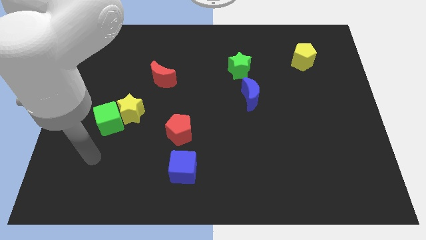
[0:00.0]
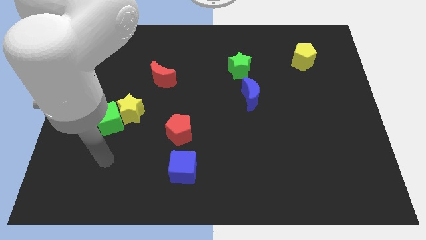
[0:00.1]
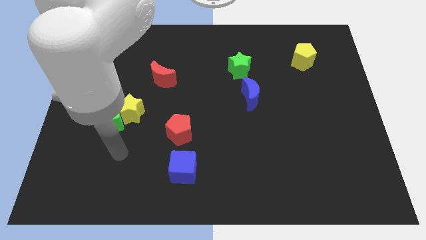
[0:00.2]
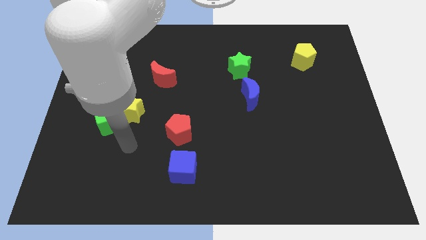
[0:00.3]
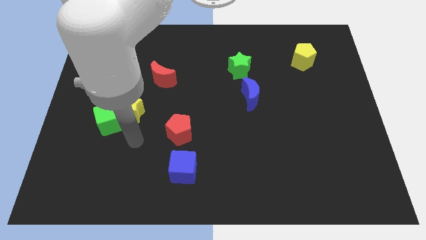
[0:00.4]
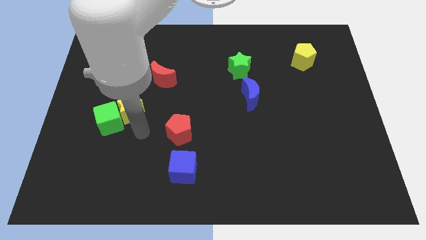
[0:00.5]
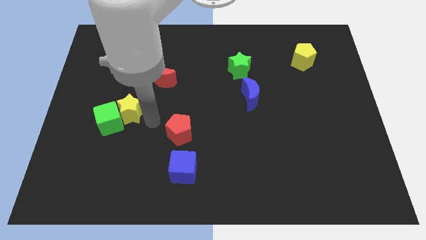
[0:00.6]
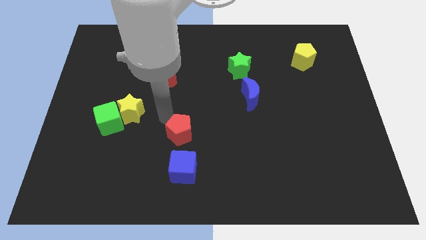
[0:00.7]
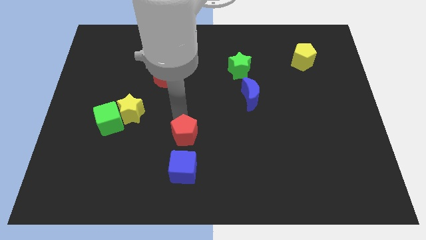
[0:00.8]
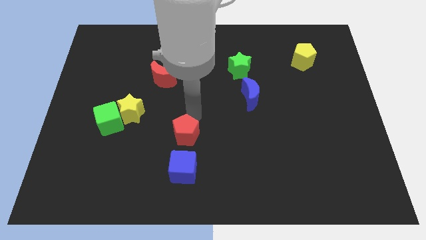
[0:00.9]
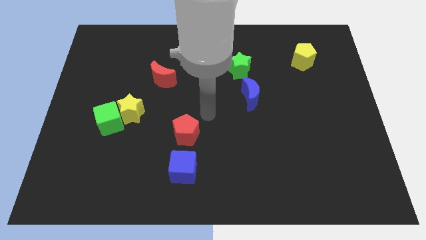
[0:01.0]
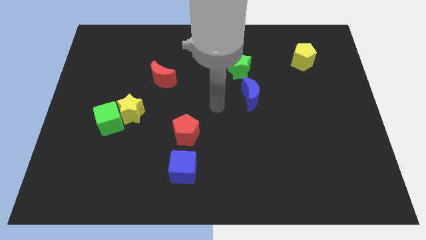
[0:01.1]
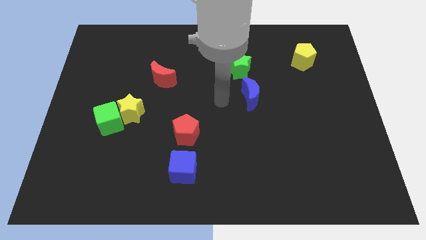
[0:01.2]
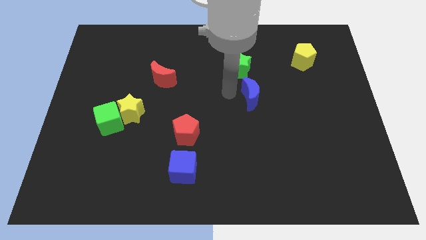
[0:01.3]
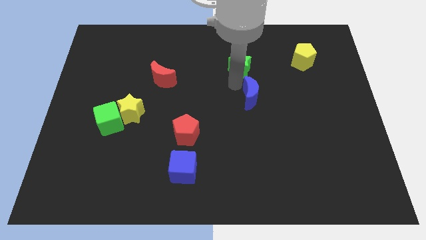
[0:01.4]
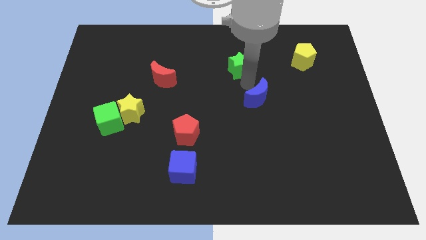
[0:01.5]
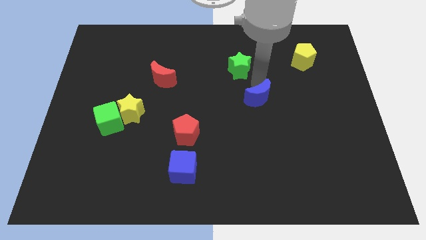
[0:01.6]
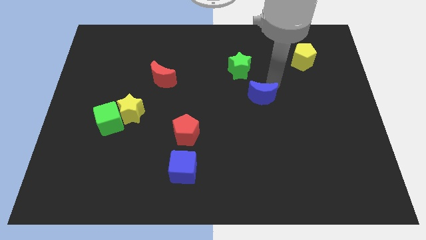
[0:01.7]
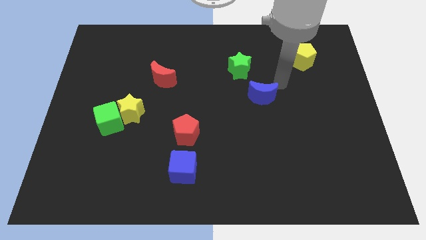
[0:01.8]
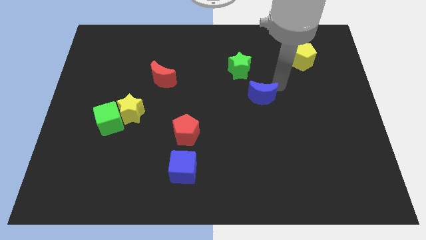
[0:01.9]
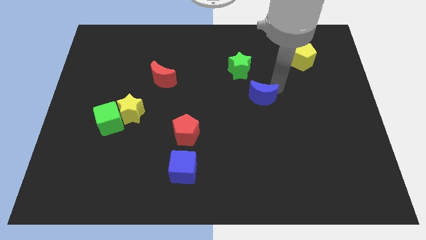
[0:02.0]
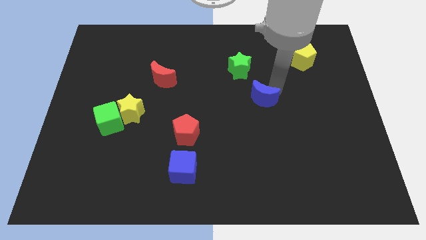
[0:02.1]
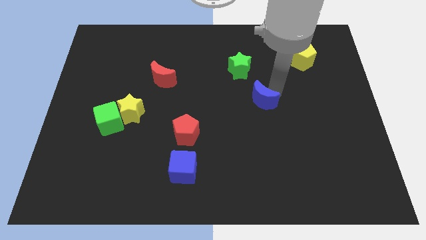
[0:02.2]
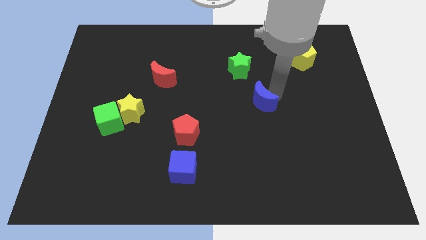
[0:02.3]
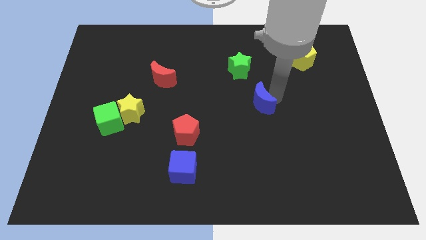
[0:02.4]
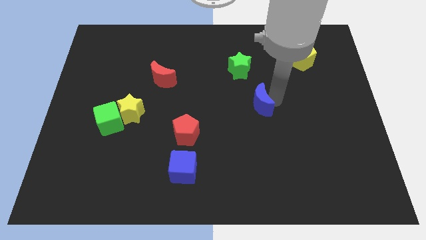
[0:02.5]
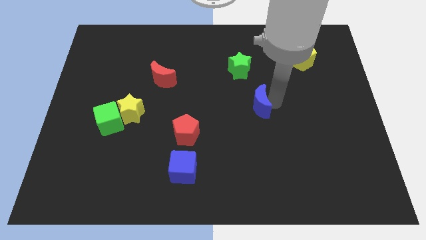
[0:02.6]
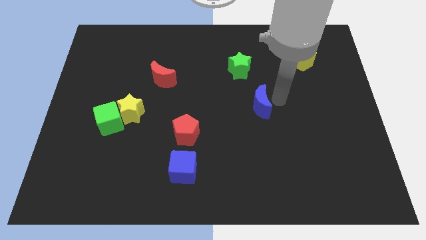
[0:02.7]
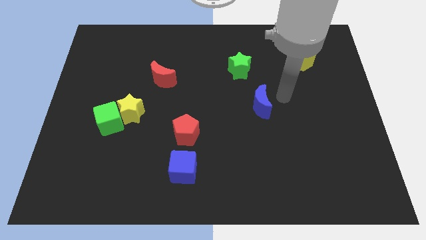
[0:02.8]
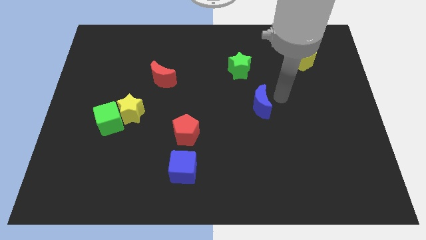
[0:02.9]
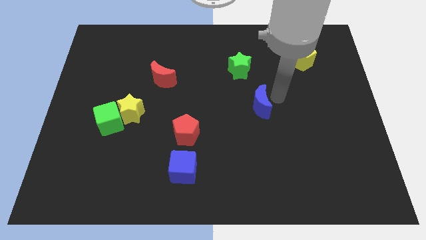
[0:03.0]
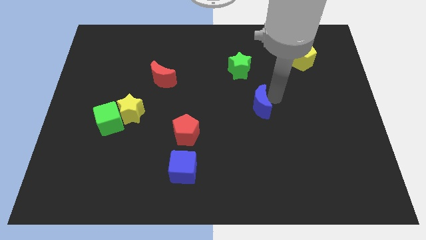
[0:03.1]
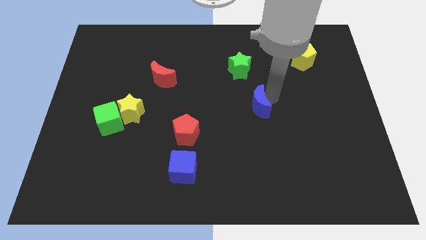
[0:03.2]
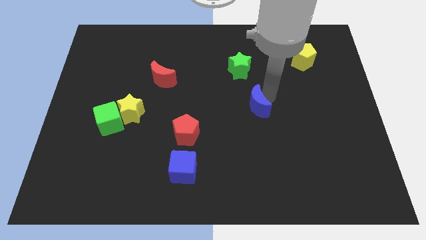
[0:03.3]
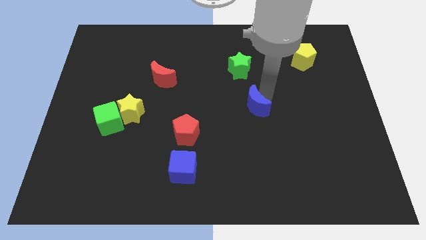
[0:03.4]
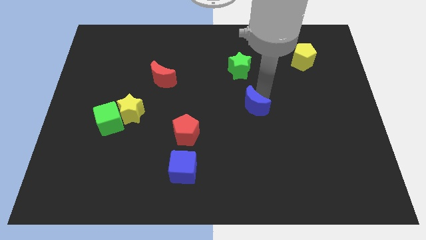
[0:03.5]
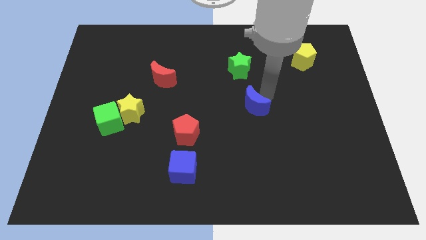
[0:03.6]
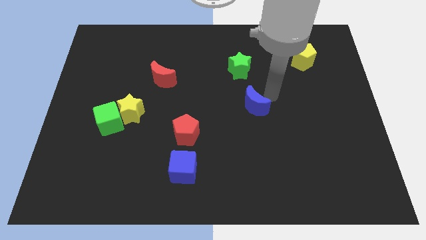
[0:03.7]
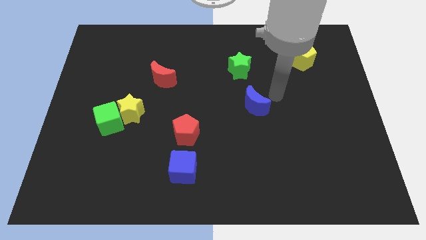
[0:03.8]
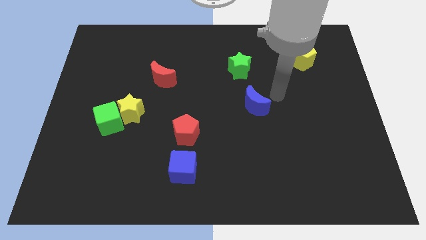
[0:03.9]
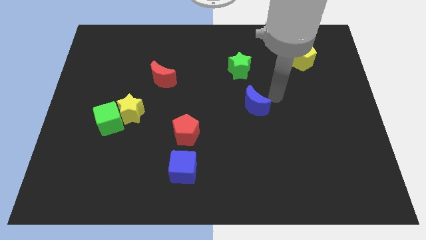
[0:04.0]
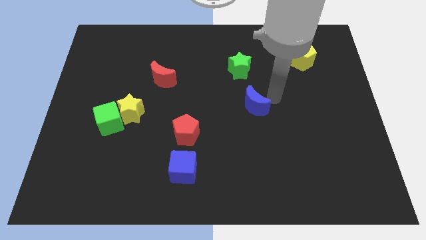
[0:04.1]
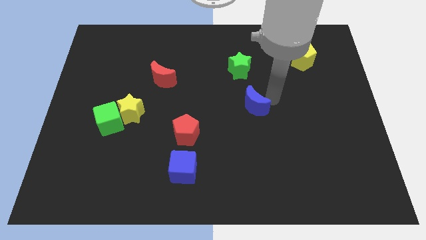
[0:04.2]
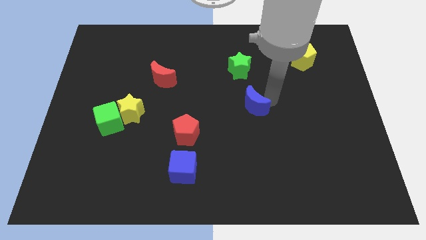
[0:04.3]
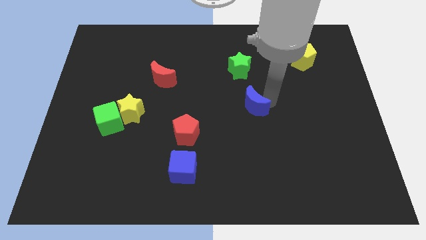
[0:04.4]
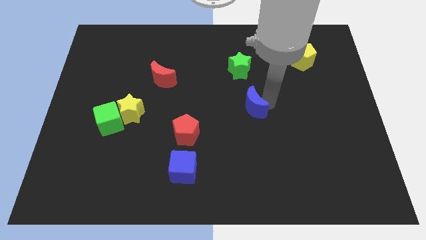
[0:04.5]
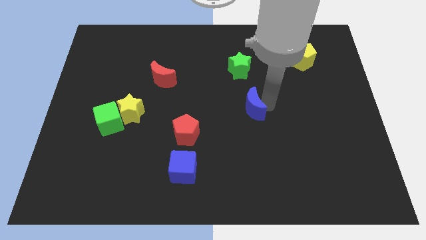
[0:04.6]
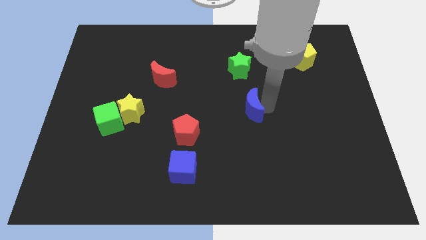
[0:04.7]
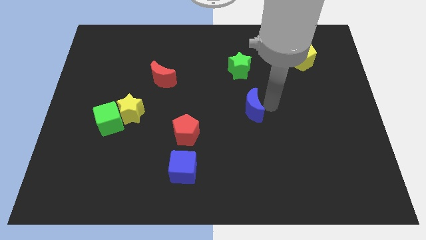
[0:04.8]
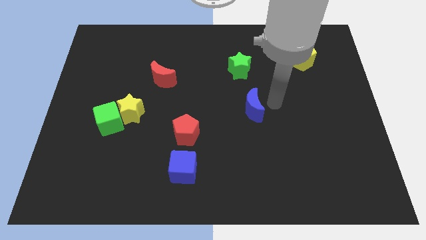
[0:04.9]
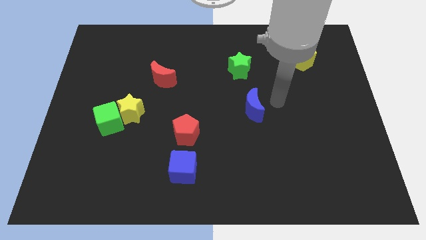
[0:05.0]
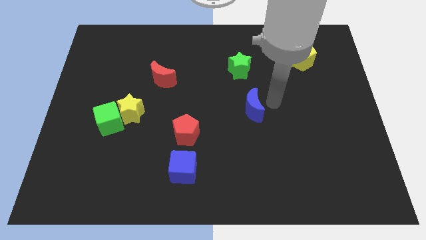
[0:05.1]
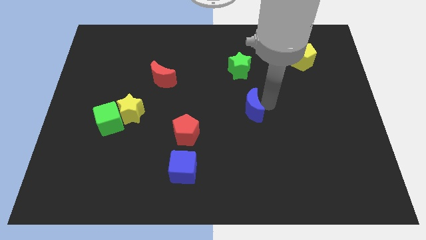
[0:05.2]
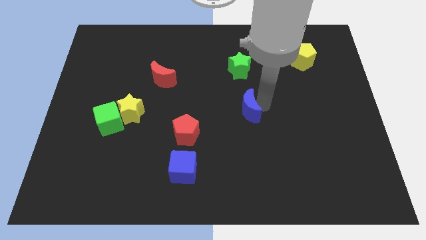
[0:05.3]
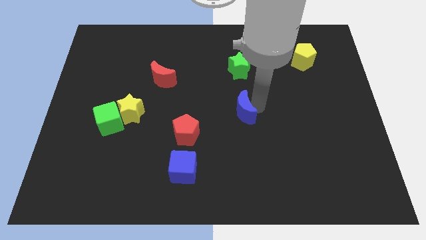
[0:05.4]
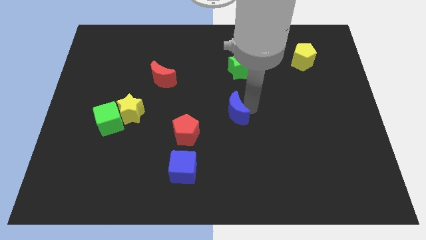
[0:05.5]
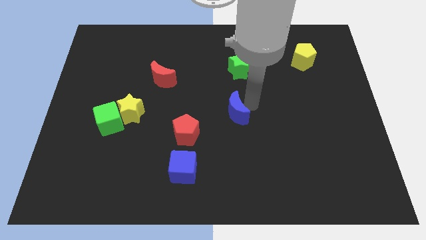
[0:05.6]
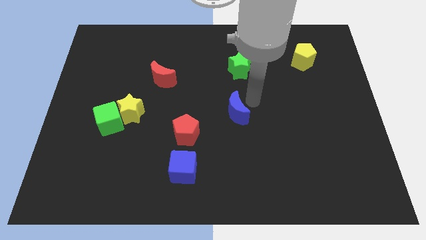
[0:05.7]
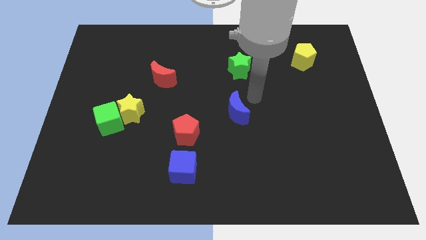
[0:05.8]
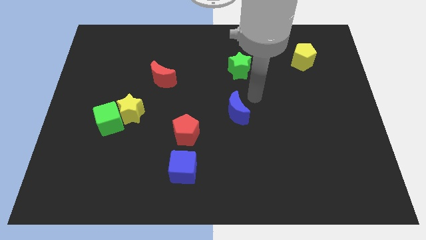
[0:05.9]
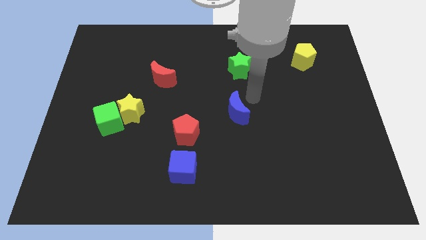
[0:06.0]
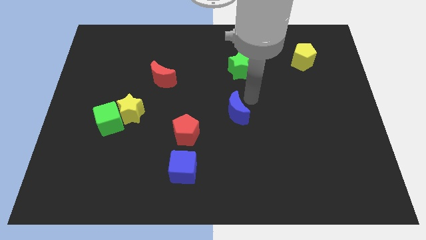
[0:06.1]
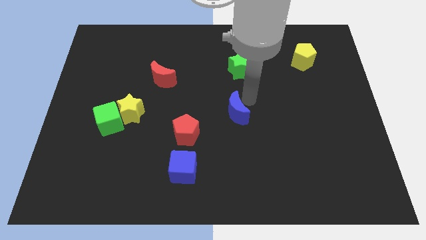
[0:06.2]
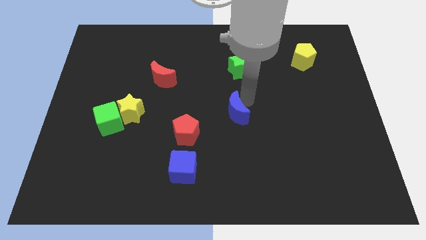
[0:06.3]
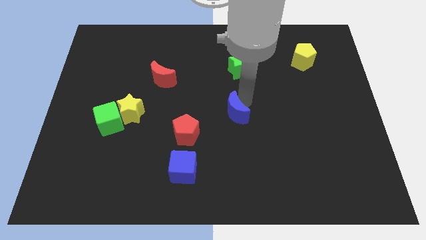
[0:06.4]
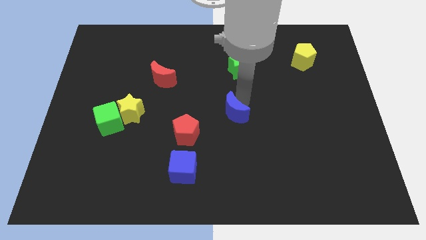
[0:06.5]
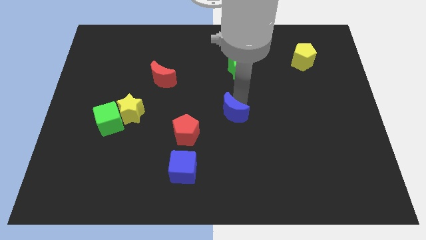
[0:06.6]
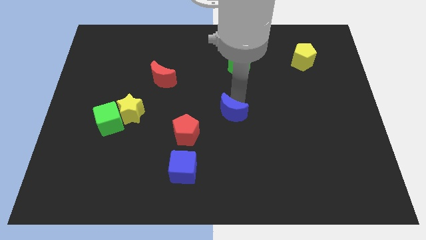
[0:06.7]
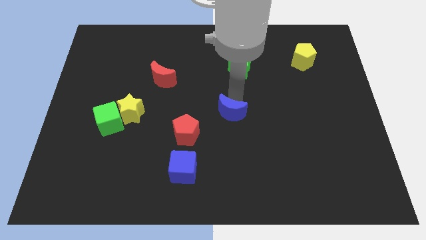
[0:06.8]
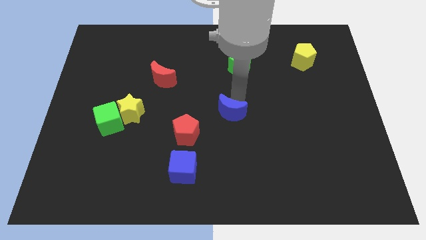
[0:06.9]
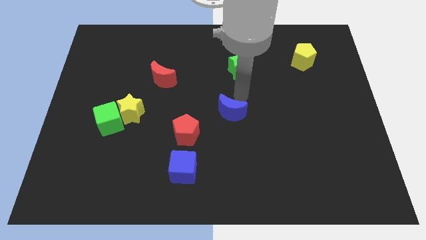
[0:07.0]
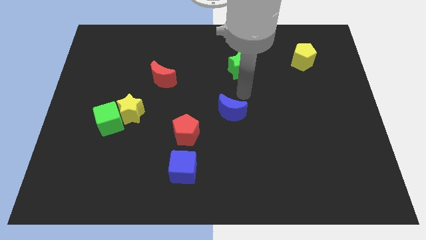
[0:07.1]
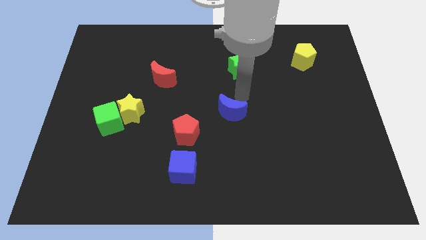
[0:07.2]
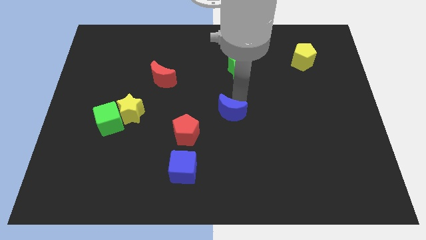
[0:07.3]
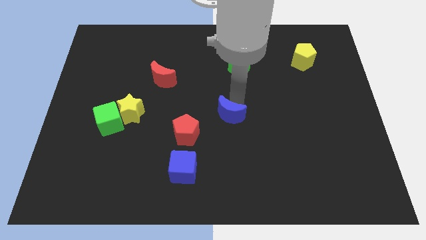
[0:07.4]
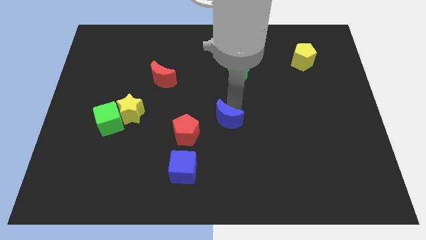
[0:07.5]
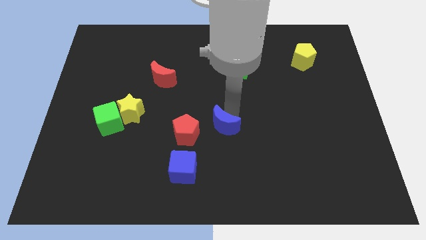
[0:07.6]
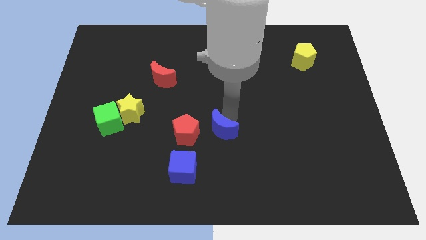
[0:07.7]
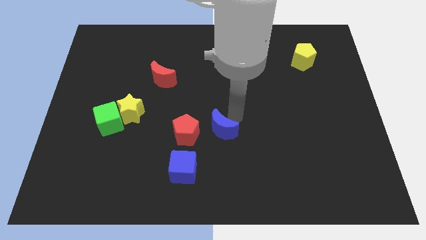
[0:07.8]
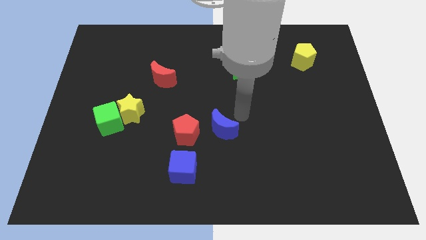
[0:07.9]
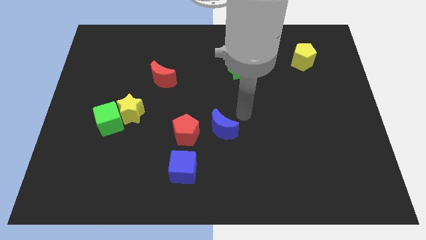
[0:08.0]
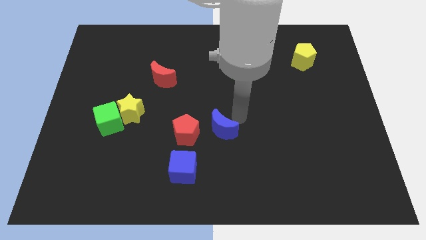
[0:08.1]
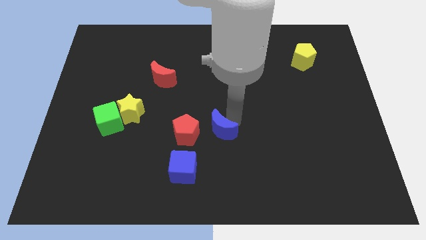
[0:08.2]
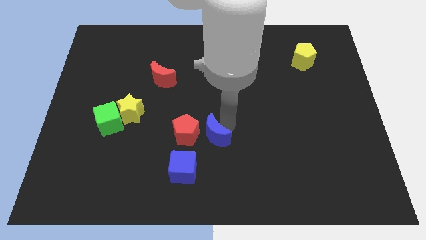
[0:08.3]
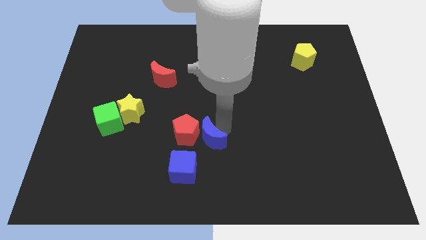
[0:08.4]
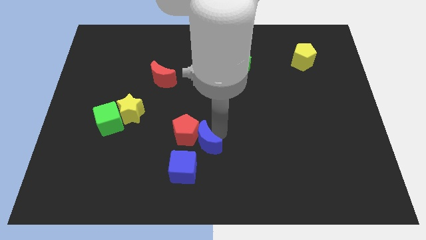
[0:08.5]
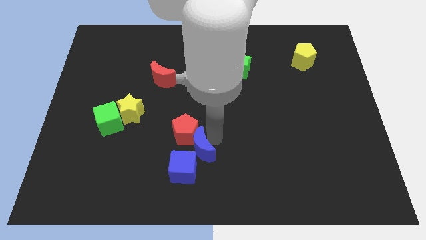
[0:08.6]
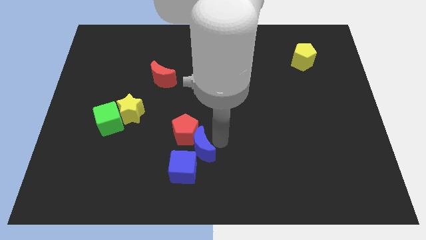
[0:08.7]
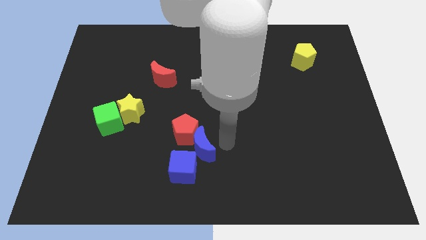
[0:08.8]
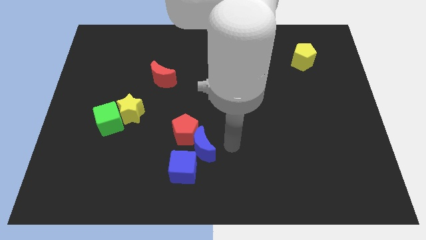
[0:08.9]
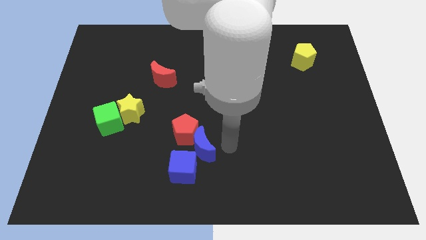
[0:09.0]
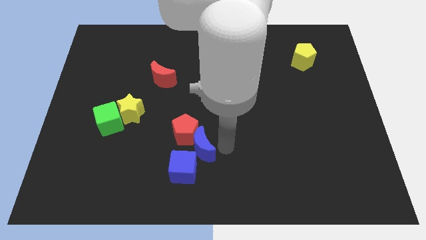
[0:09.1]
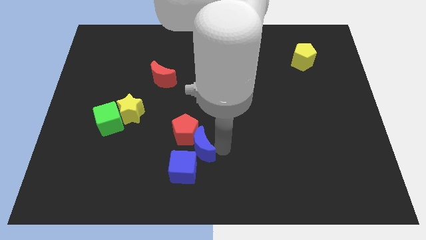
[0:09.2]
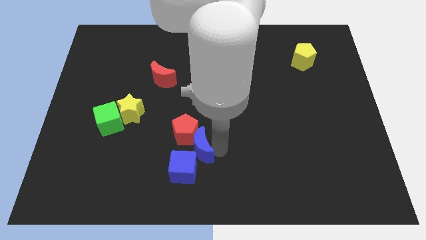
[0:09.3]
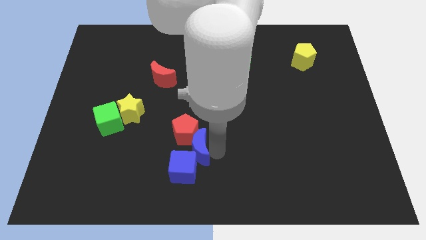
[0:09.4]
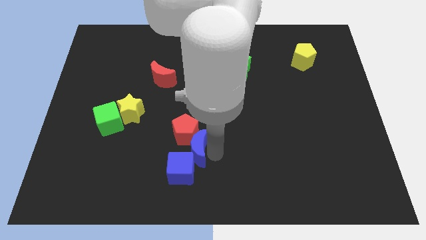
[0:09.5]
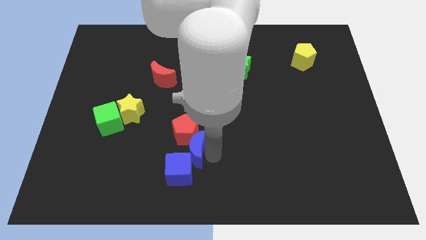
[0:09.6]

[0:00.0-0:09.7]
move the blue moon downwards and to the left
